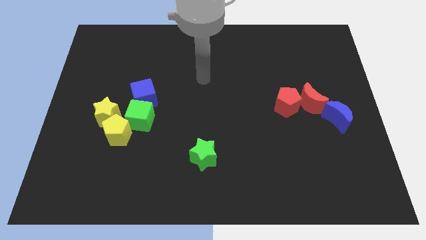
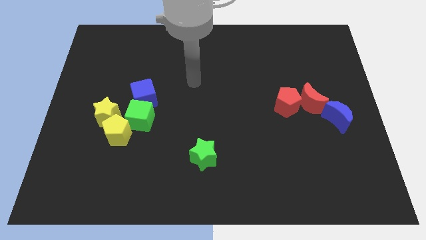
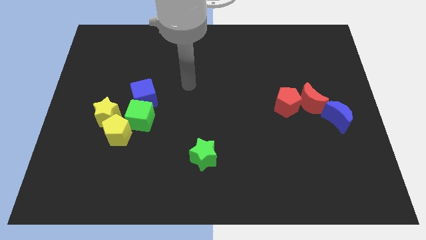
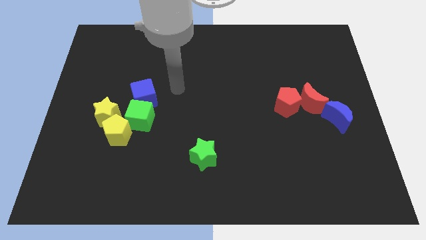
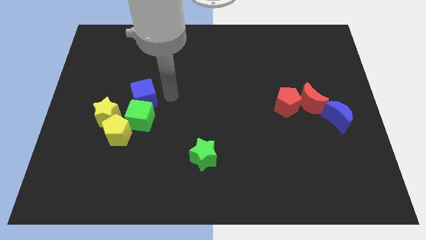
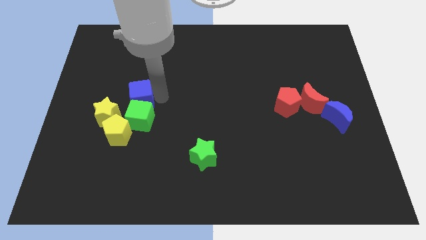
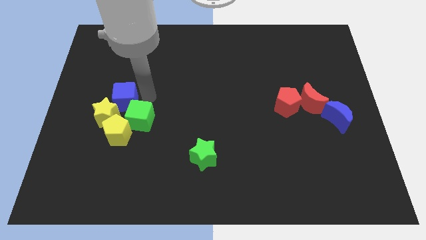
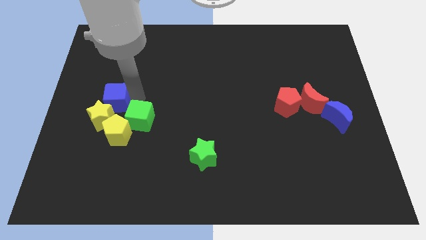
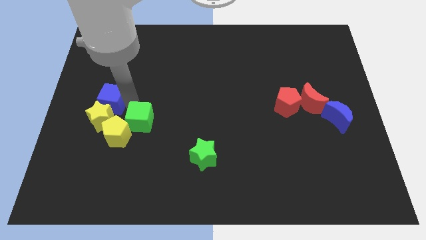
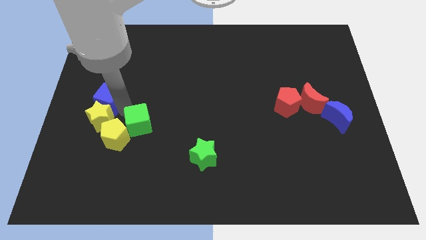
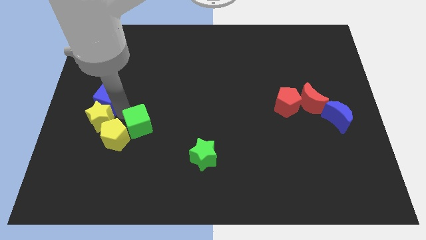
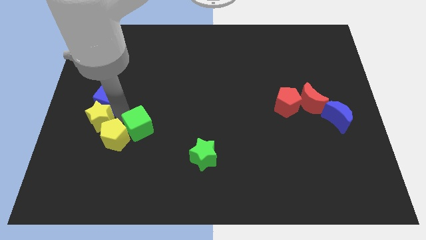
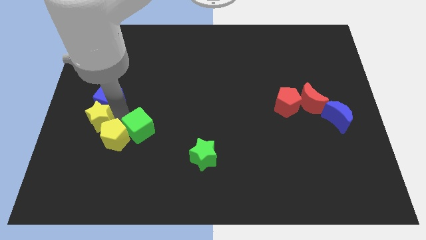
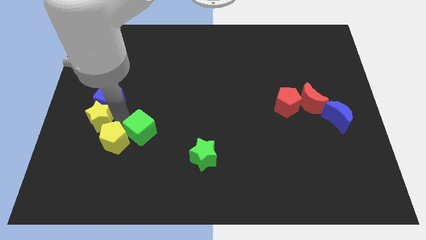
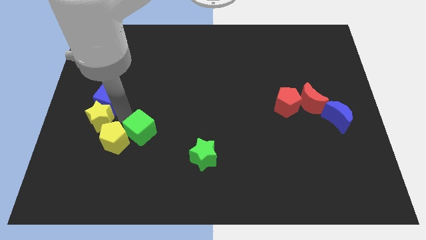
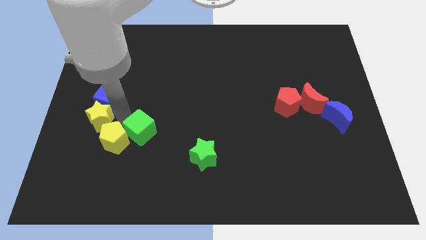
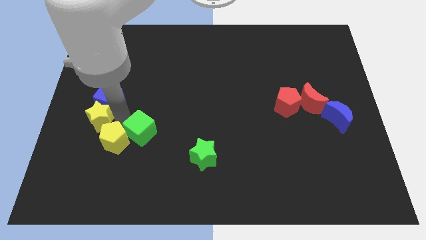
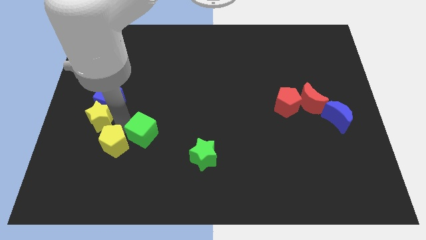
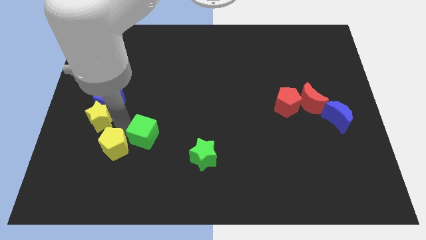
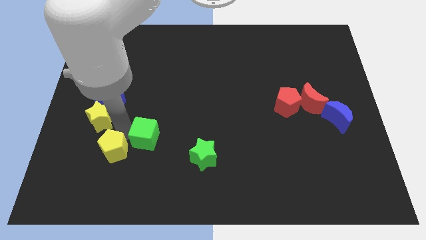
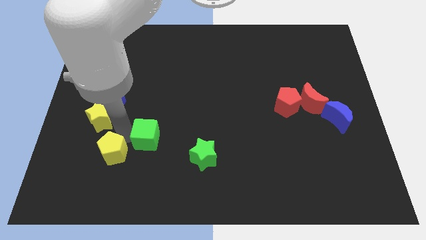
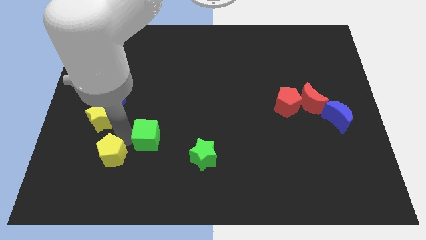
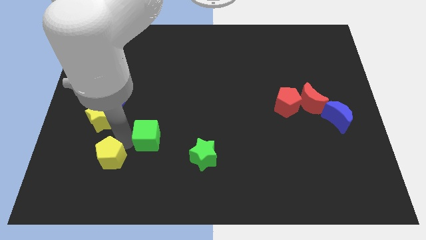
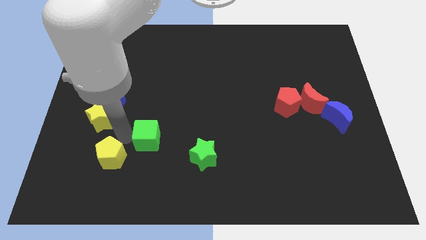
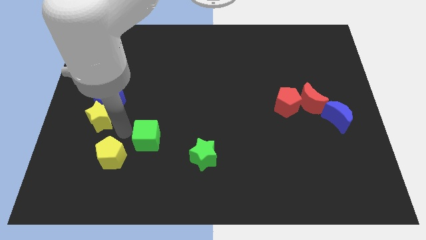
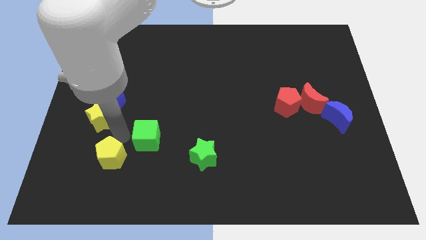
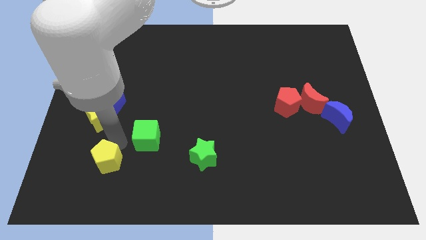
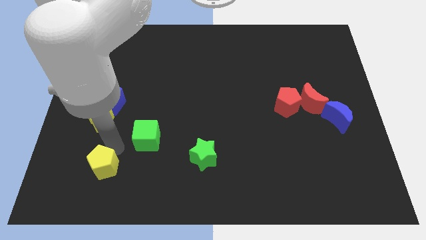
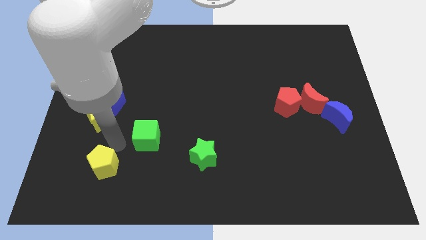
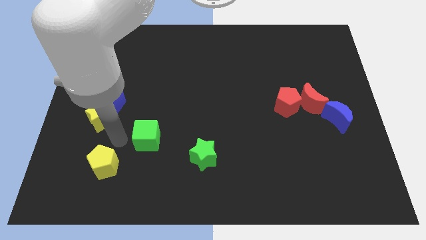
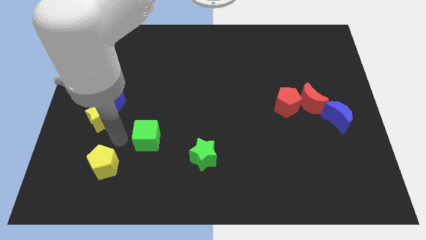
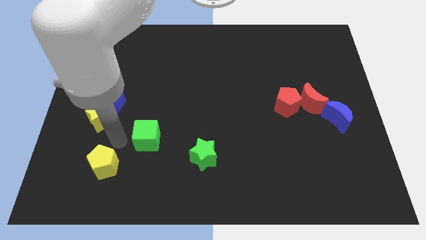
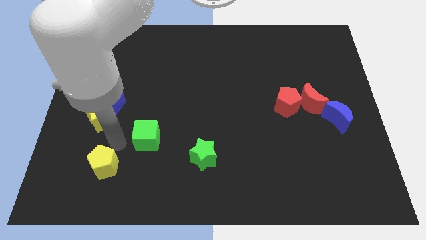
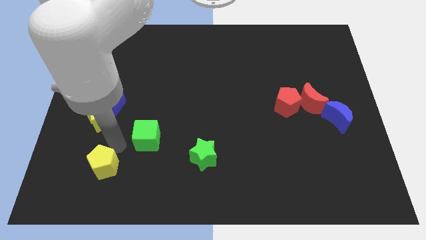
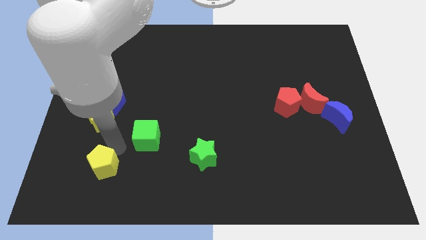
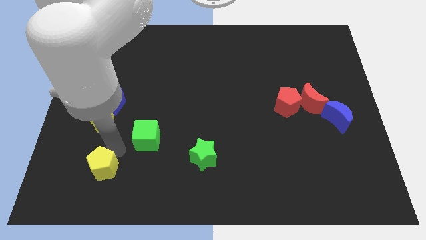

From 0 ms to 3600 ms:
move the yellow pentagon away from the yellow star and green cube

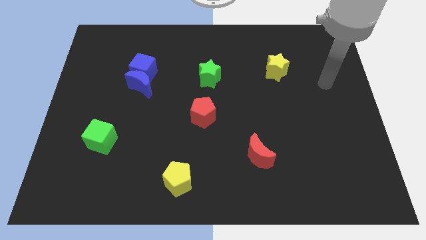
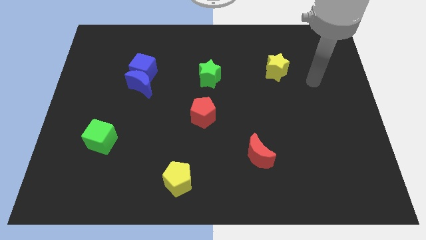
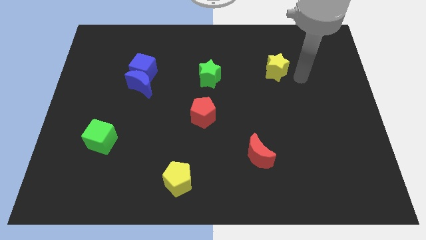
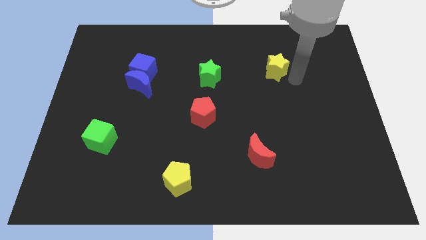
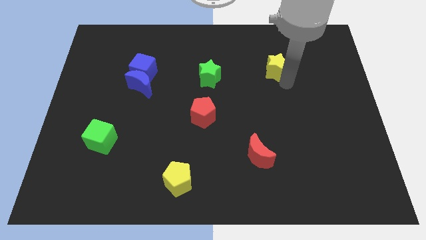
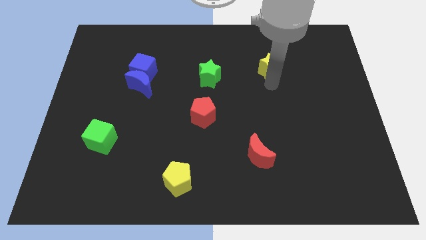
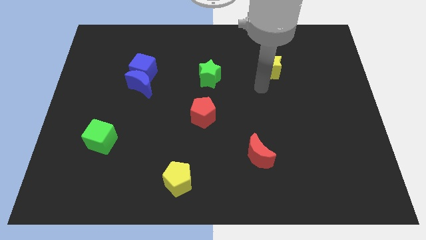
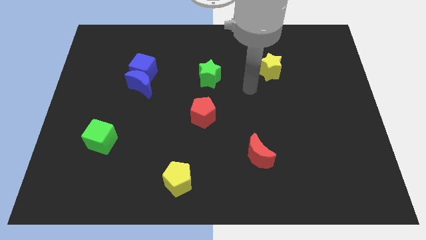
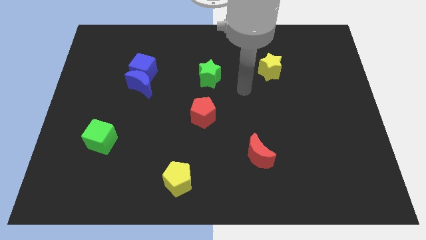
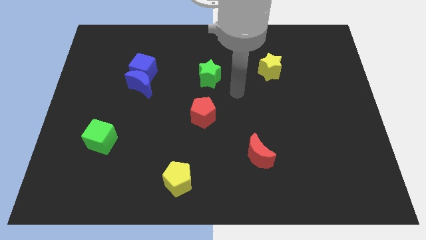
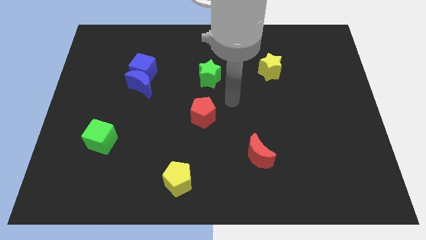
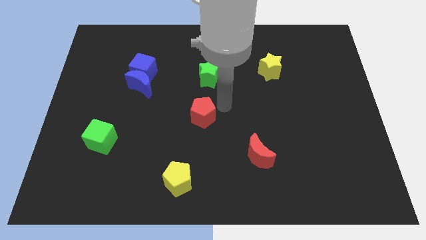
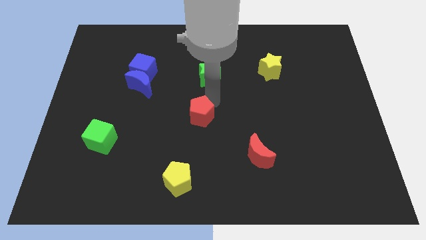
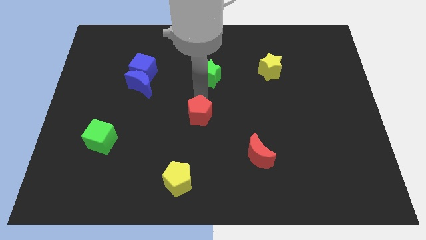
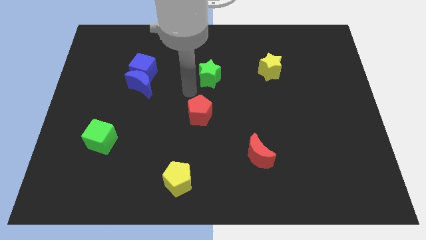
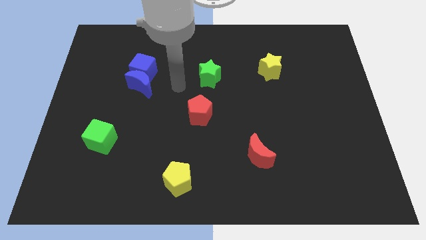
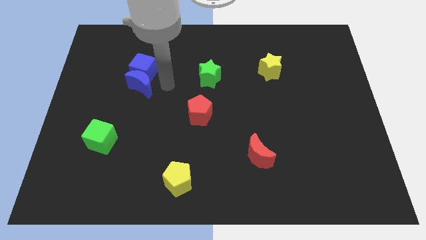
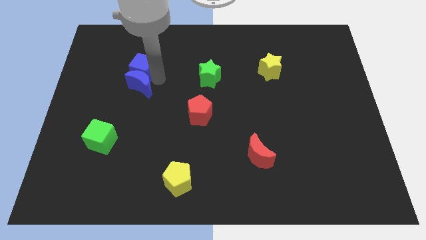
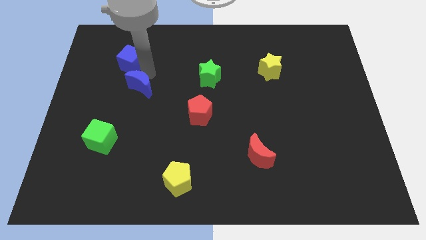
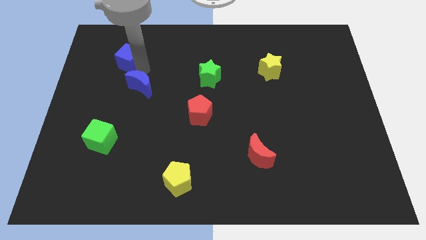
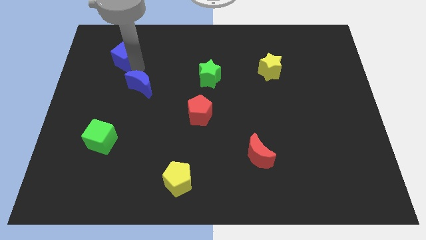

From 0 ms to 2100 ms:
pull the blue moon apart from the blue cube

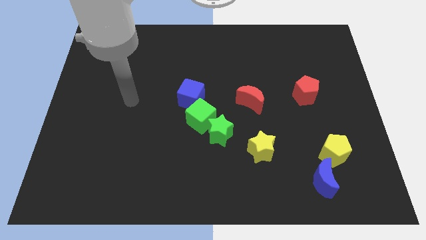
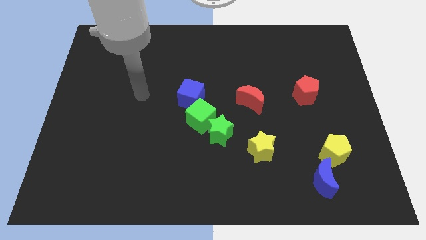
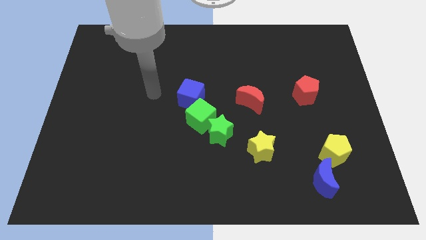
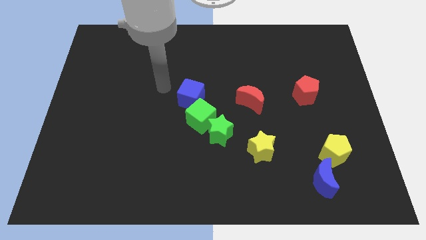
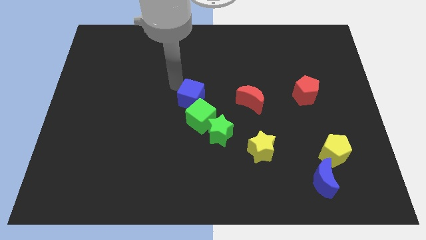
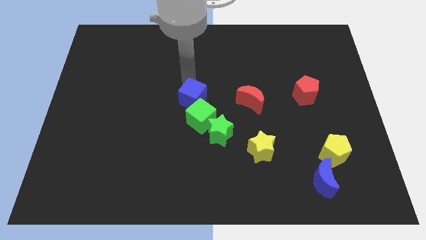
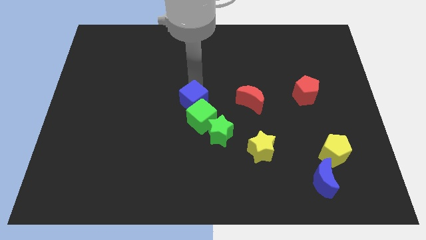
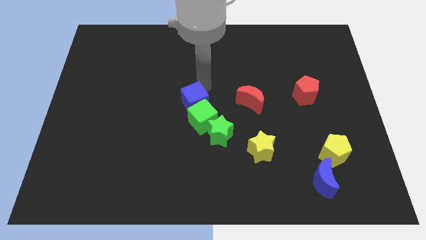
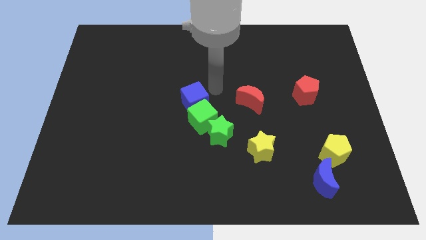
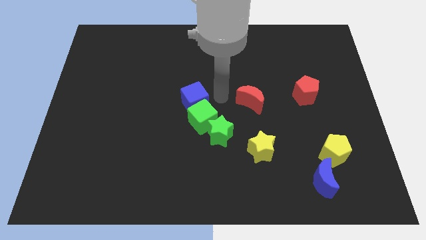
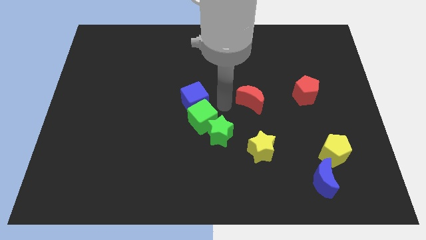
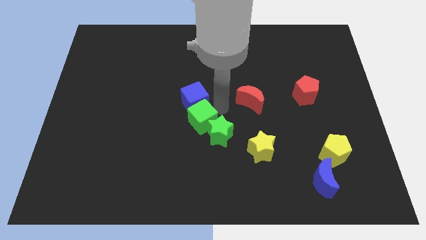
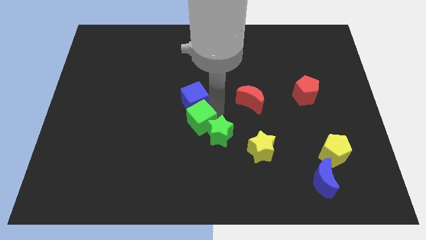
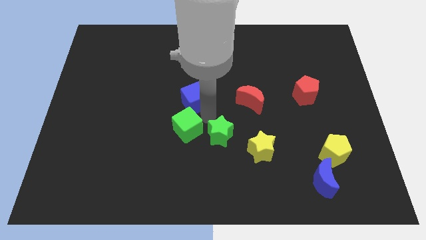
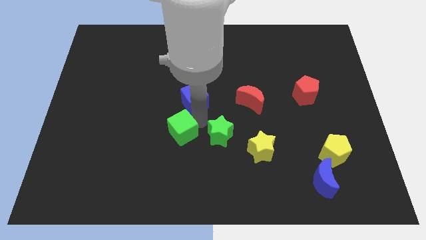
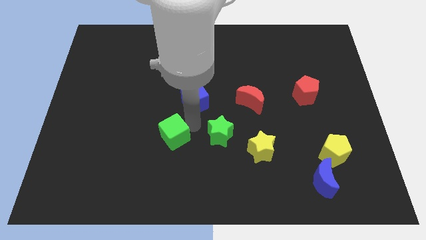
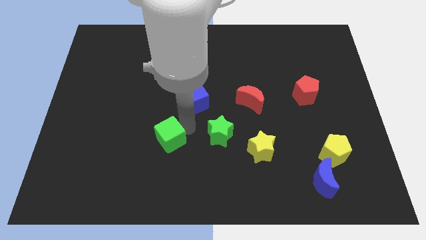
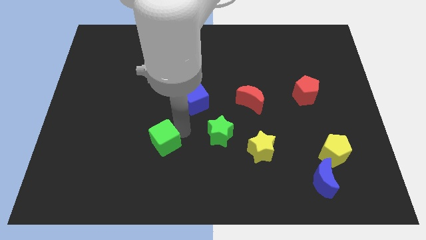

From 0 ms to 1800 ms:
move the green cube away from the green star and blue cube

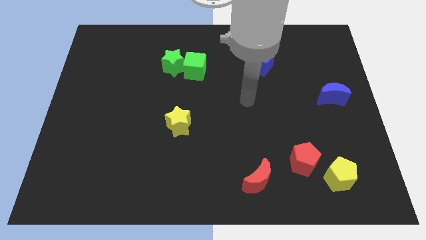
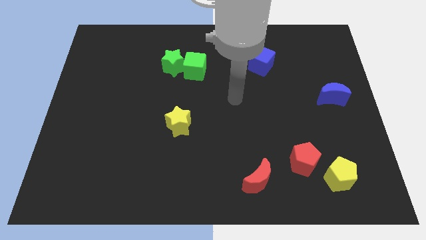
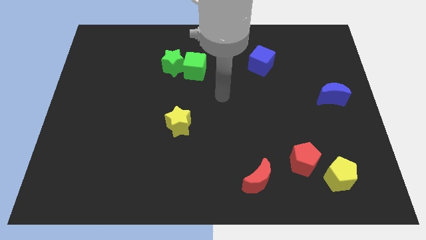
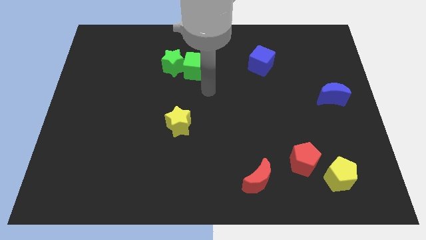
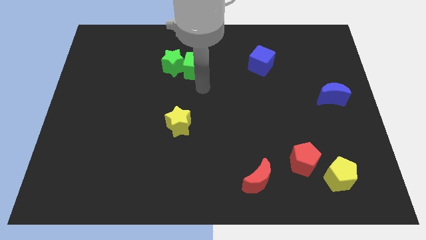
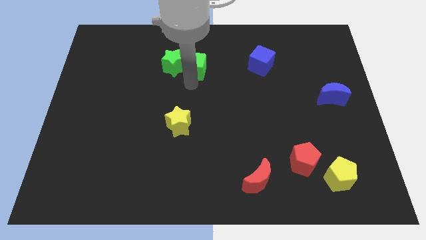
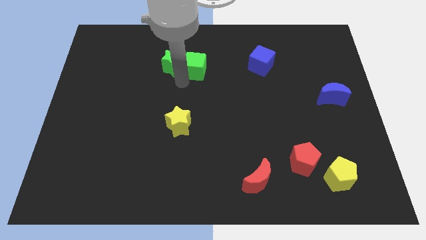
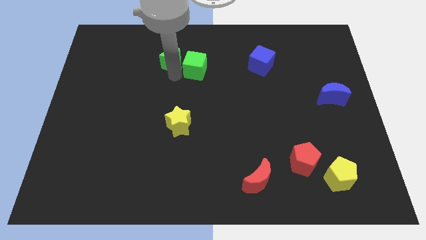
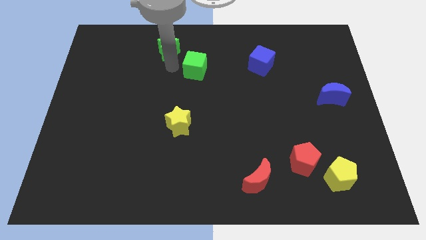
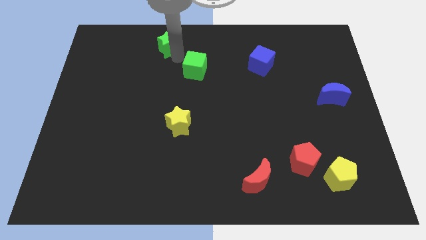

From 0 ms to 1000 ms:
pull the green cube apart from the green star

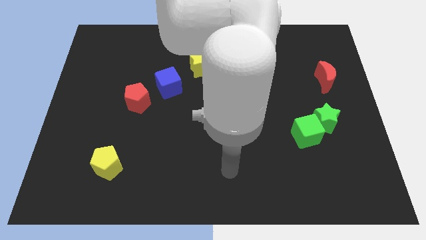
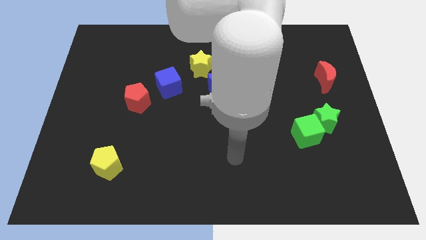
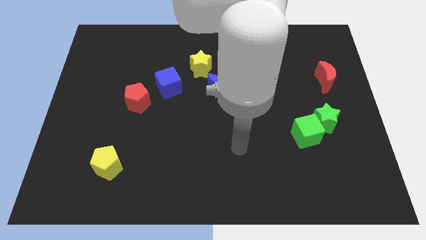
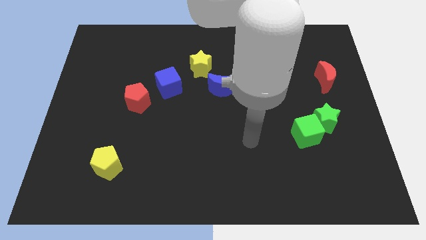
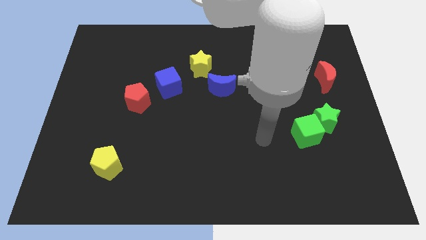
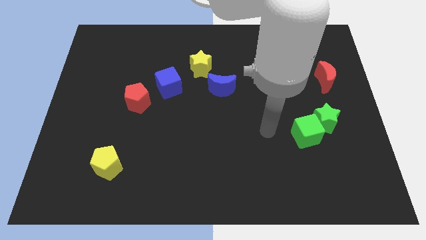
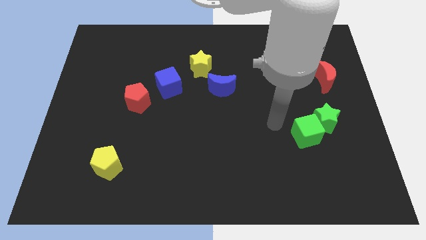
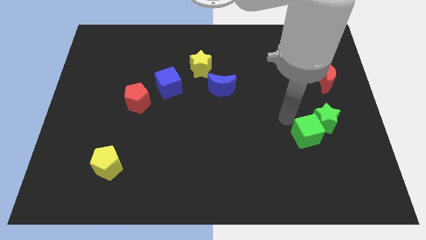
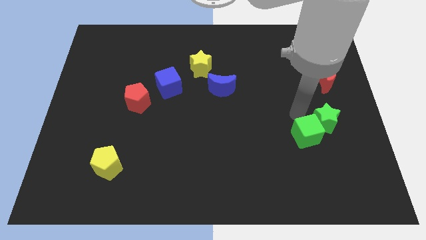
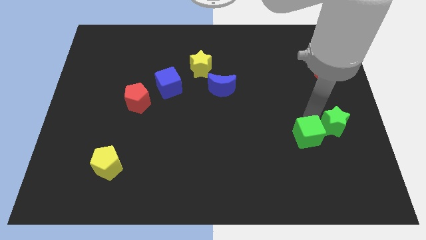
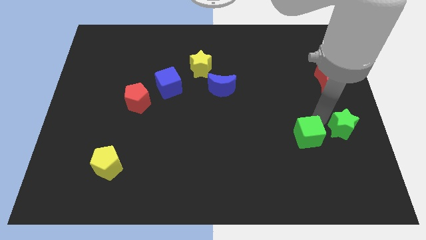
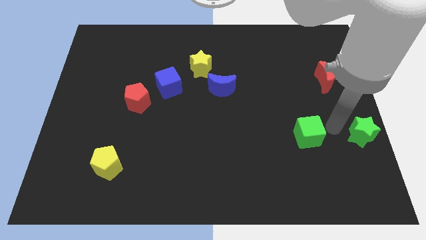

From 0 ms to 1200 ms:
move the green cube away from the green star
